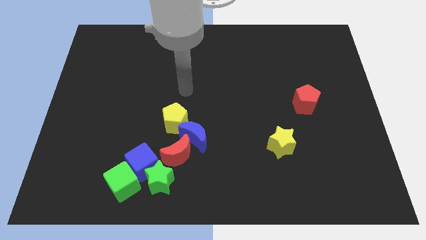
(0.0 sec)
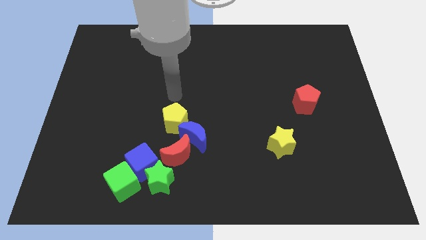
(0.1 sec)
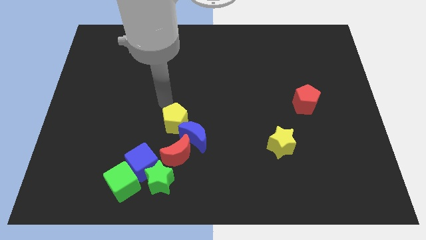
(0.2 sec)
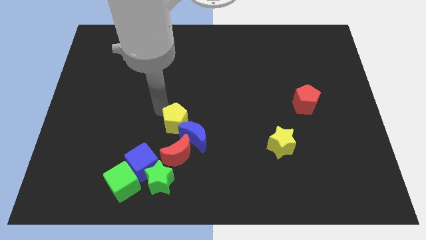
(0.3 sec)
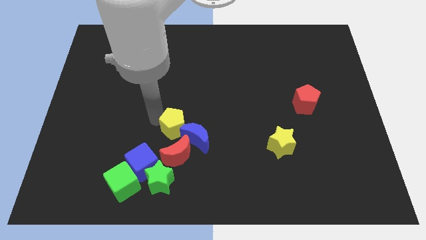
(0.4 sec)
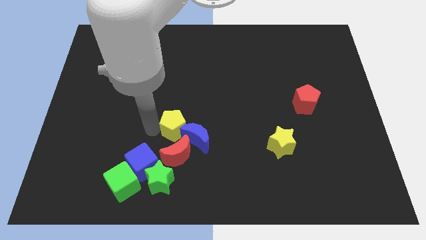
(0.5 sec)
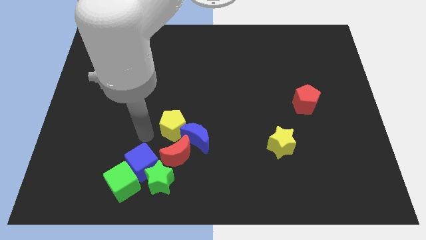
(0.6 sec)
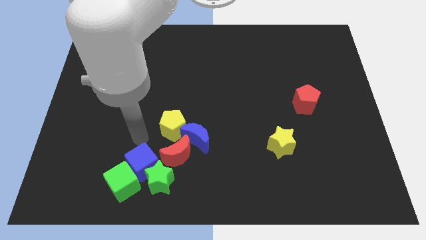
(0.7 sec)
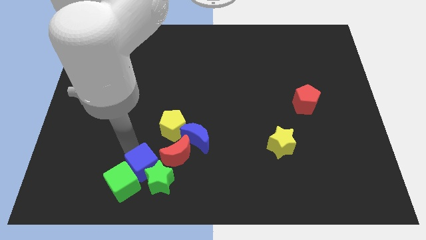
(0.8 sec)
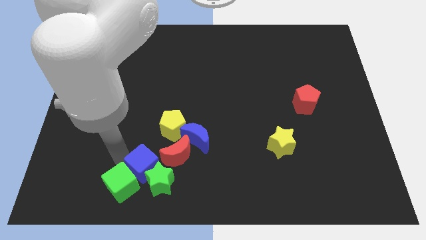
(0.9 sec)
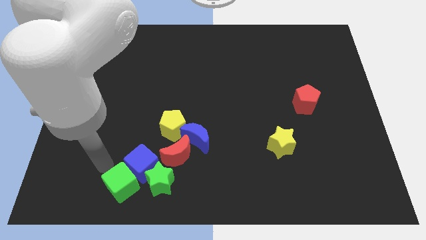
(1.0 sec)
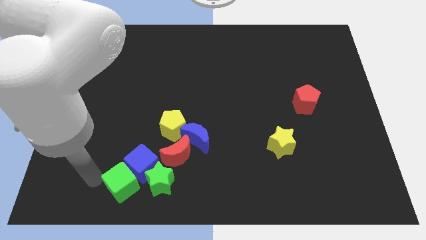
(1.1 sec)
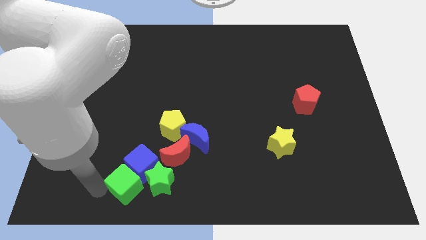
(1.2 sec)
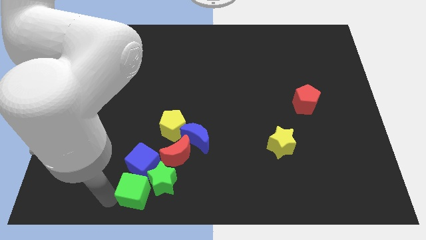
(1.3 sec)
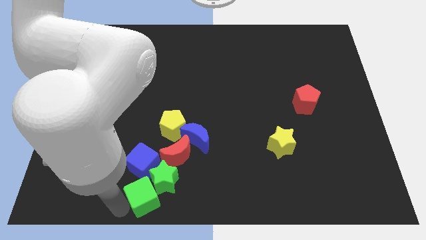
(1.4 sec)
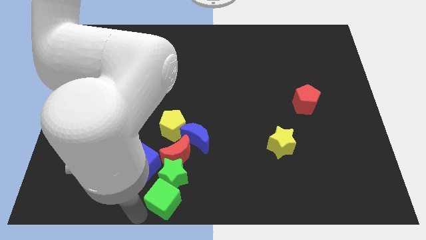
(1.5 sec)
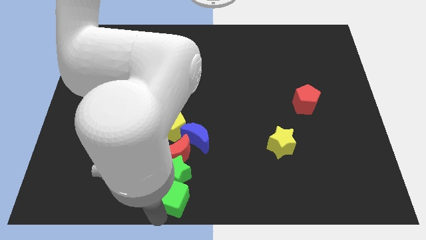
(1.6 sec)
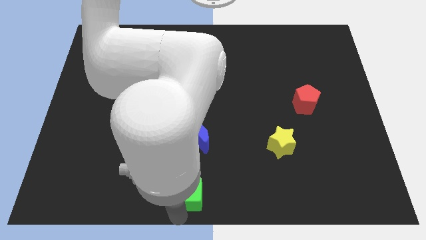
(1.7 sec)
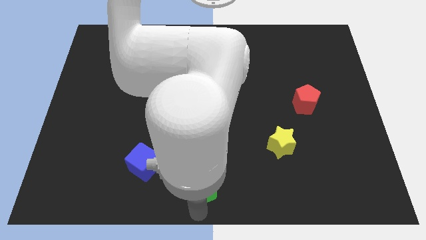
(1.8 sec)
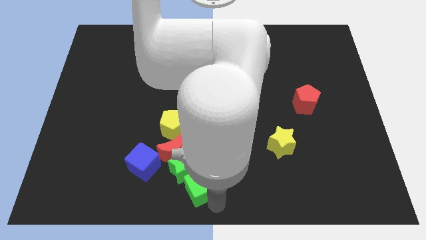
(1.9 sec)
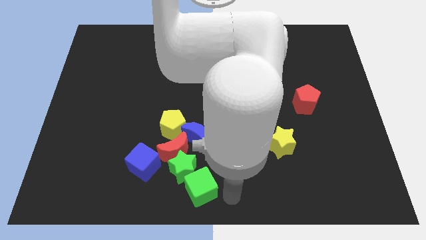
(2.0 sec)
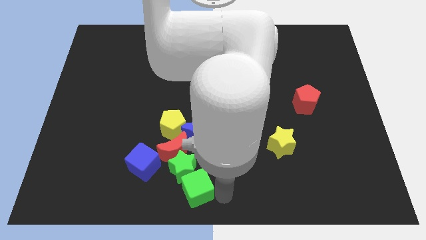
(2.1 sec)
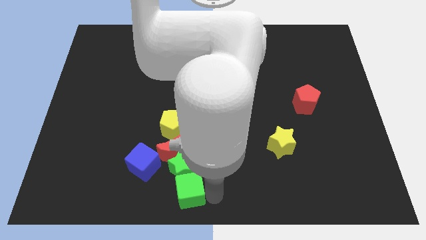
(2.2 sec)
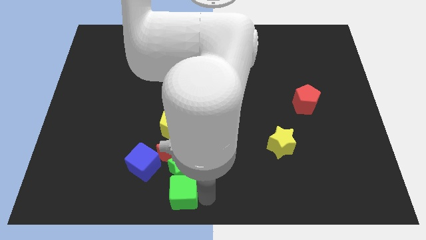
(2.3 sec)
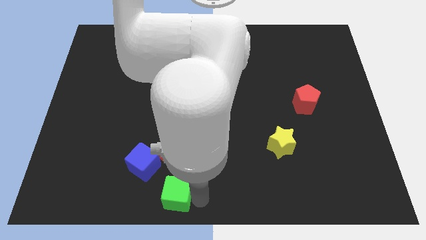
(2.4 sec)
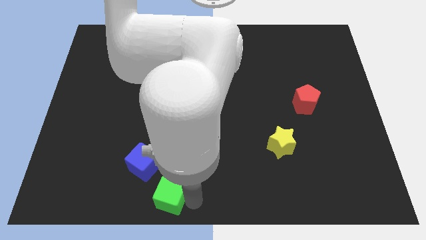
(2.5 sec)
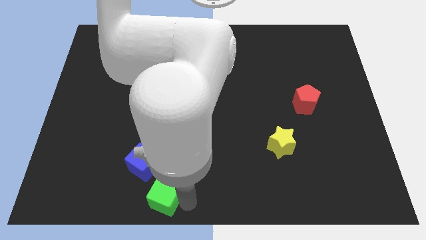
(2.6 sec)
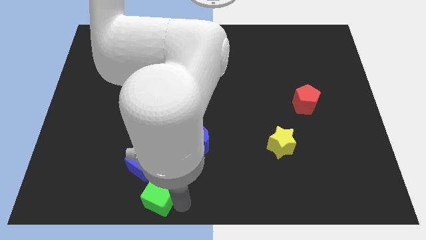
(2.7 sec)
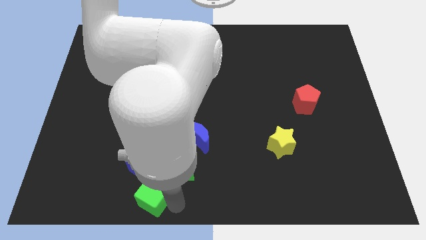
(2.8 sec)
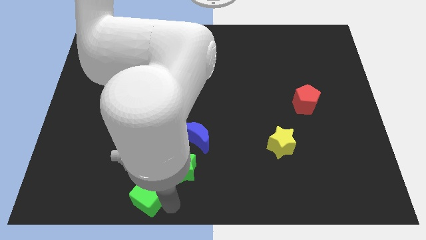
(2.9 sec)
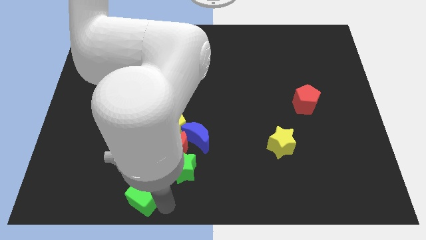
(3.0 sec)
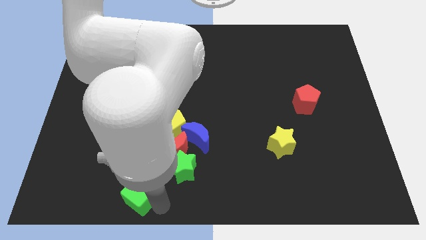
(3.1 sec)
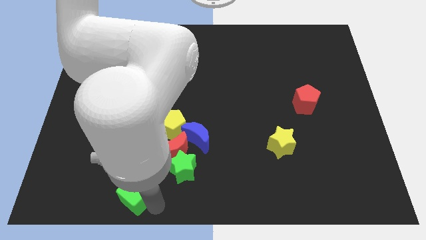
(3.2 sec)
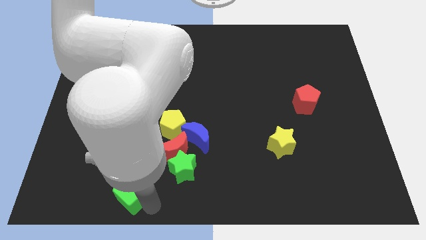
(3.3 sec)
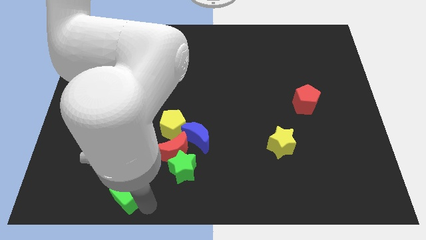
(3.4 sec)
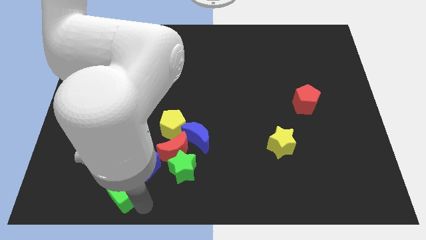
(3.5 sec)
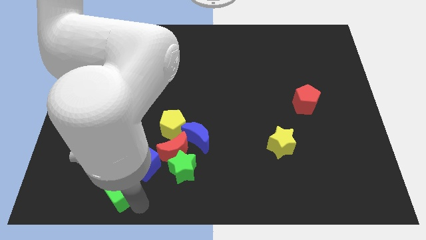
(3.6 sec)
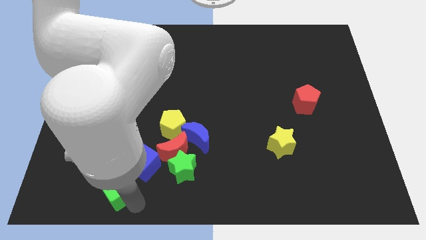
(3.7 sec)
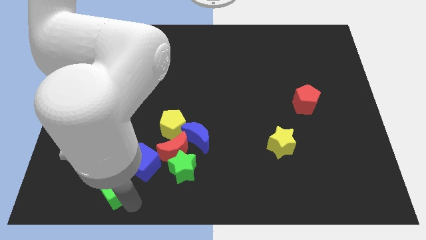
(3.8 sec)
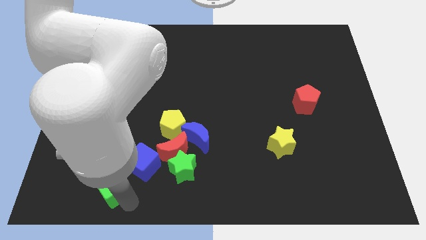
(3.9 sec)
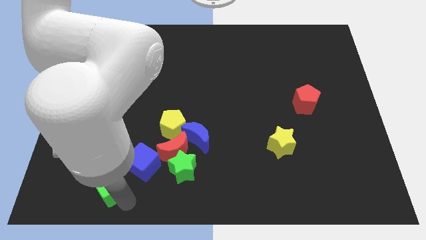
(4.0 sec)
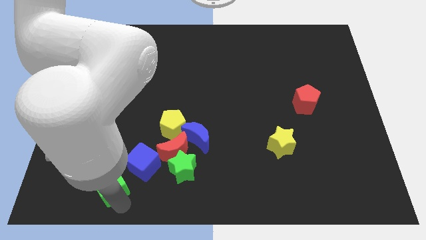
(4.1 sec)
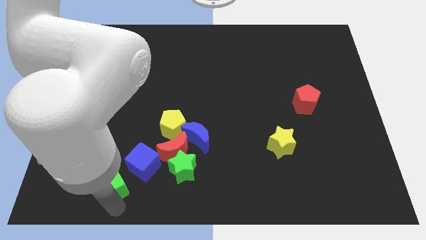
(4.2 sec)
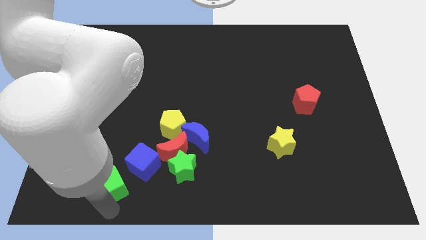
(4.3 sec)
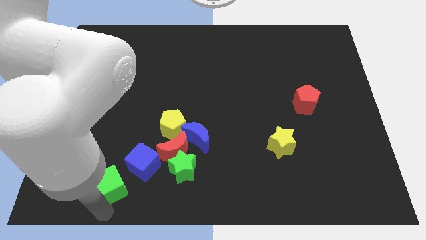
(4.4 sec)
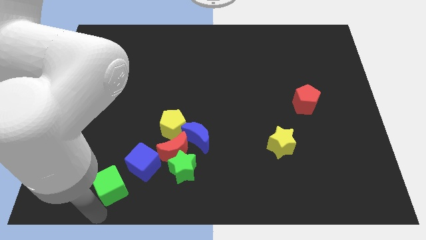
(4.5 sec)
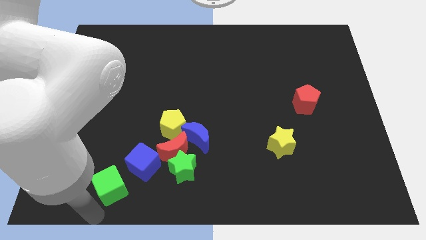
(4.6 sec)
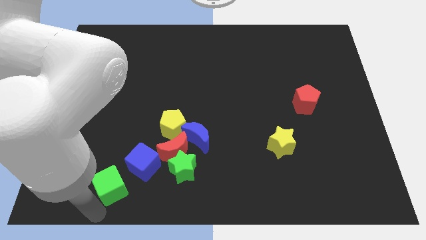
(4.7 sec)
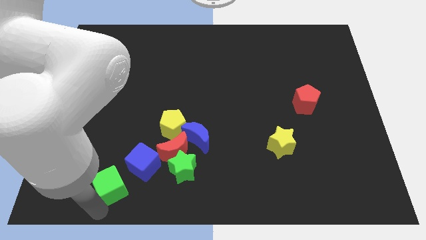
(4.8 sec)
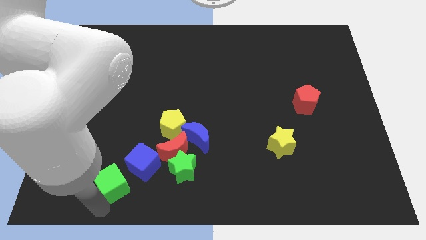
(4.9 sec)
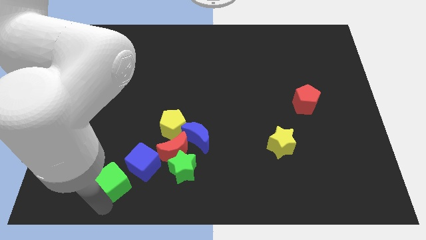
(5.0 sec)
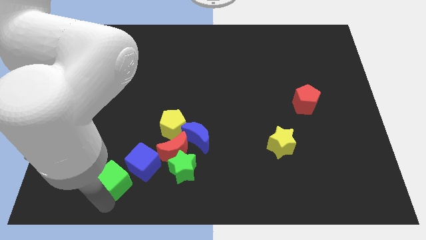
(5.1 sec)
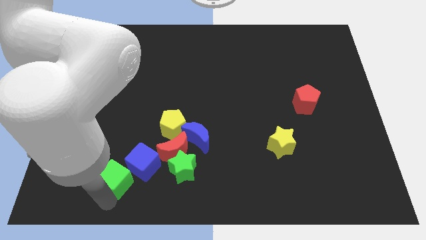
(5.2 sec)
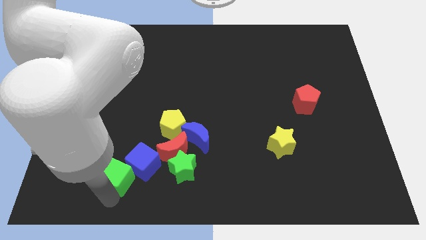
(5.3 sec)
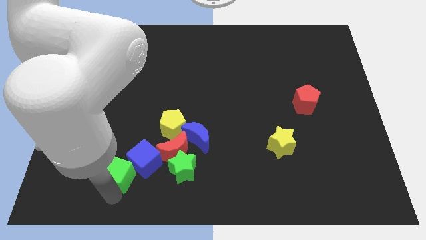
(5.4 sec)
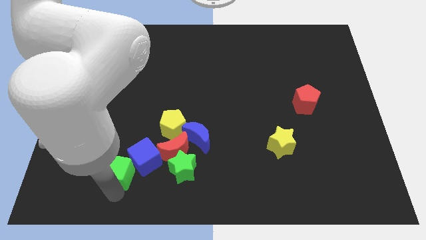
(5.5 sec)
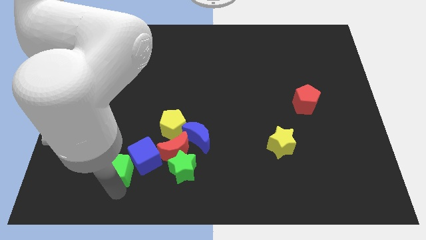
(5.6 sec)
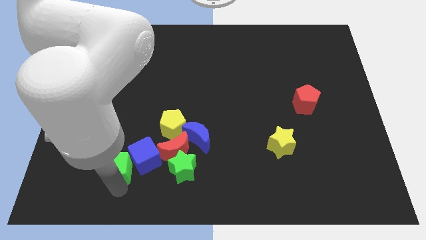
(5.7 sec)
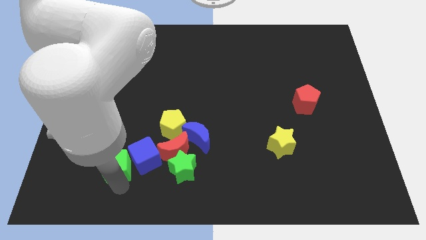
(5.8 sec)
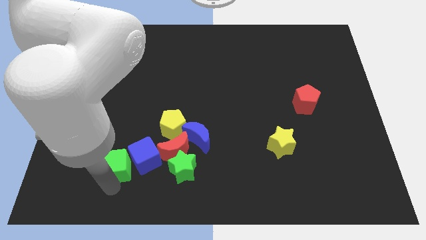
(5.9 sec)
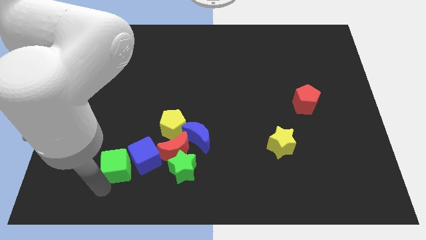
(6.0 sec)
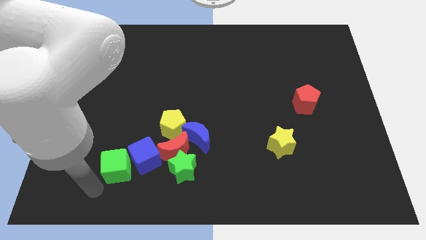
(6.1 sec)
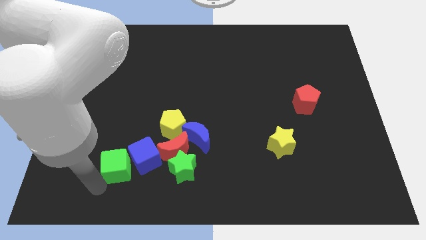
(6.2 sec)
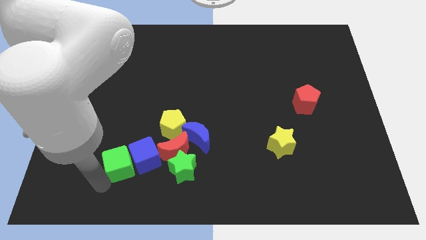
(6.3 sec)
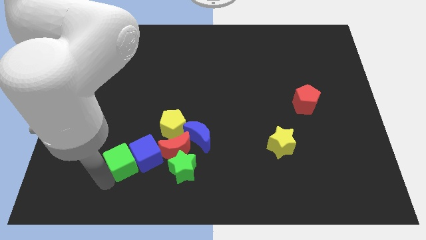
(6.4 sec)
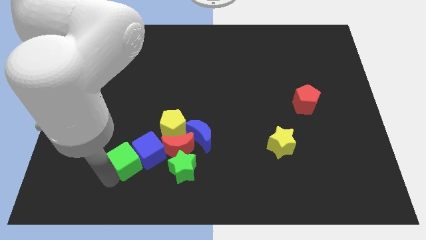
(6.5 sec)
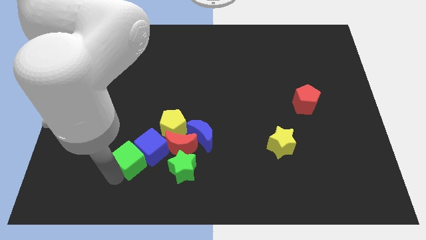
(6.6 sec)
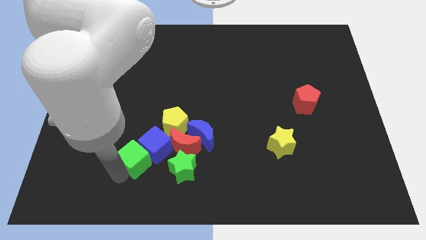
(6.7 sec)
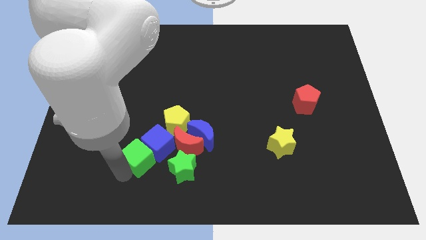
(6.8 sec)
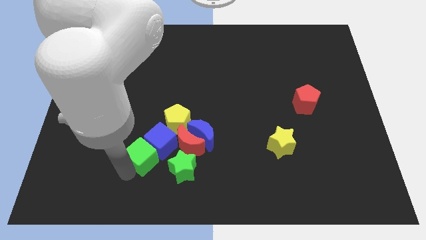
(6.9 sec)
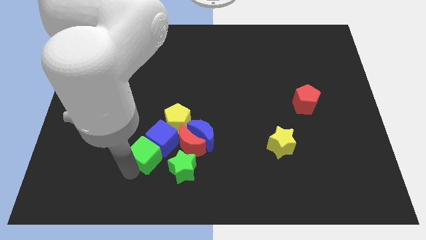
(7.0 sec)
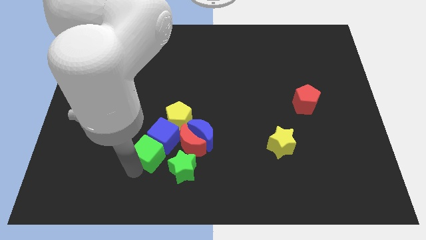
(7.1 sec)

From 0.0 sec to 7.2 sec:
move the green cube to the left side of the blue moon
